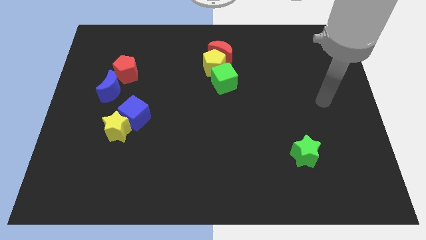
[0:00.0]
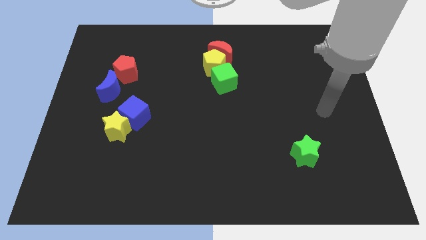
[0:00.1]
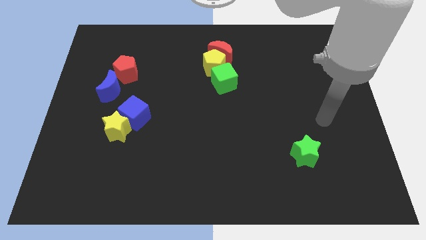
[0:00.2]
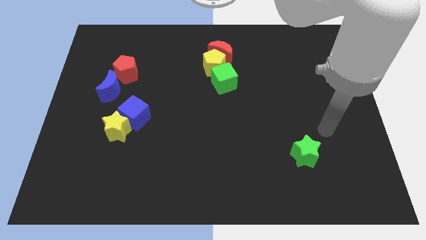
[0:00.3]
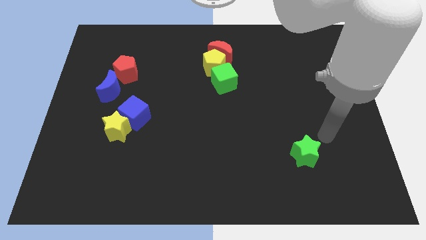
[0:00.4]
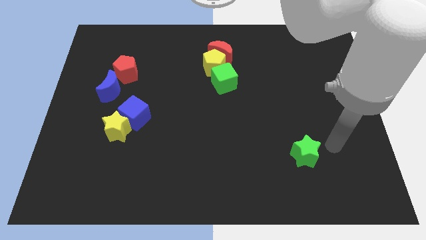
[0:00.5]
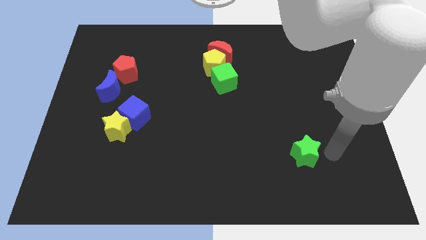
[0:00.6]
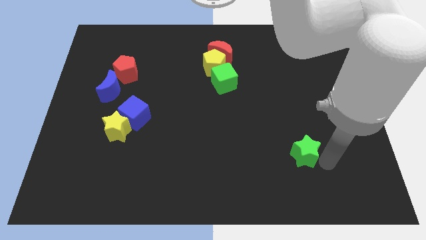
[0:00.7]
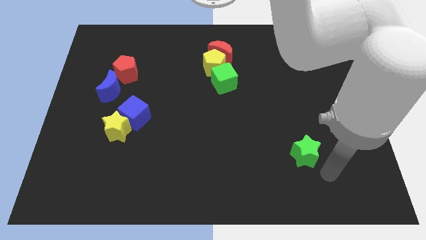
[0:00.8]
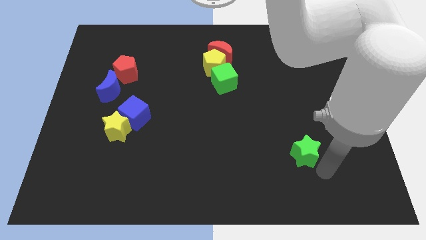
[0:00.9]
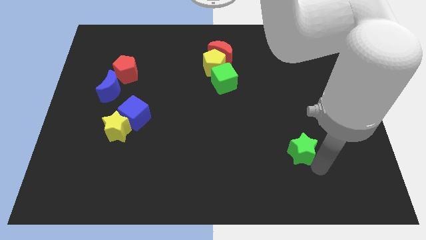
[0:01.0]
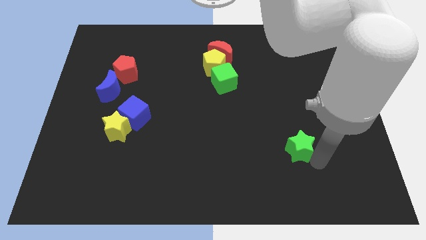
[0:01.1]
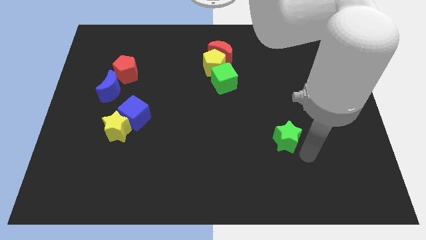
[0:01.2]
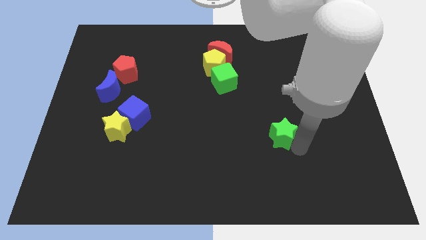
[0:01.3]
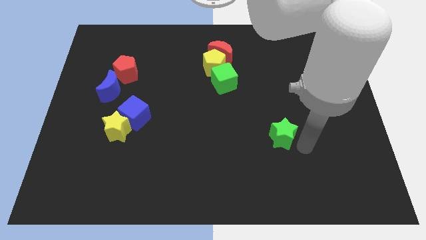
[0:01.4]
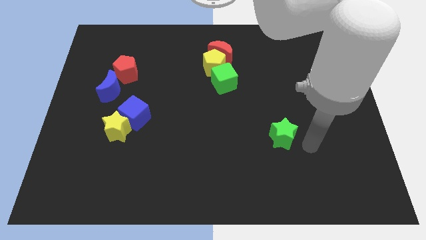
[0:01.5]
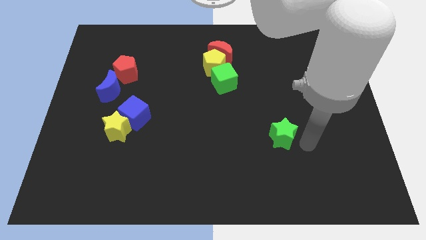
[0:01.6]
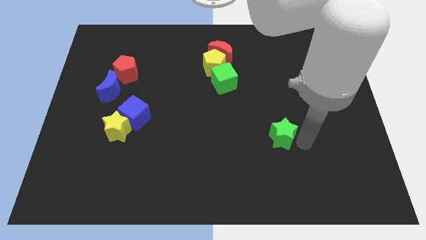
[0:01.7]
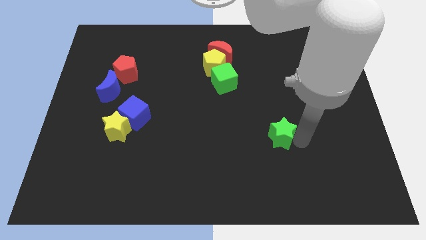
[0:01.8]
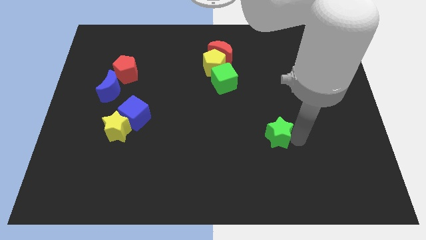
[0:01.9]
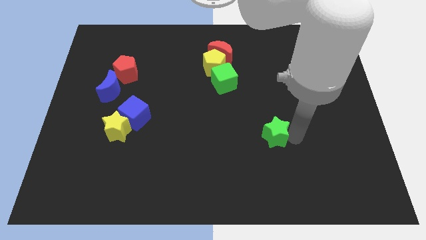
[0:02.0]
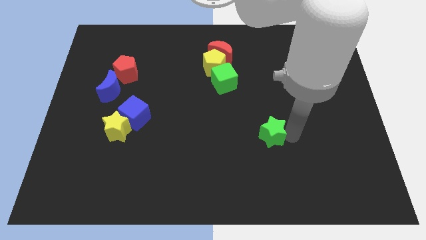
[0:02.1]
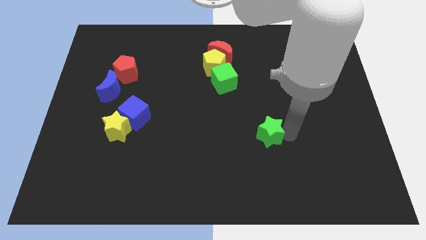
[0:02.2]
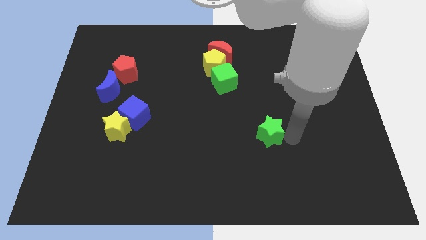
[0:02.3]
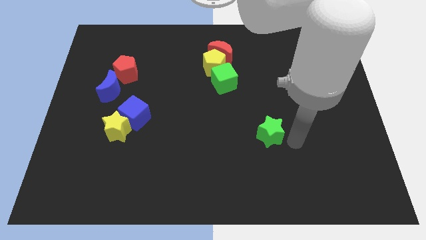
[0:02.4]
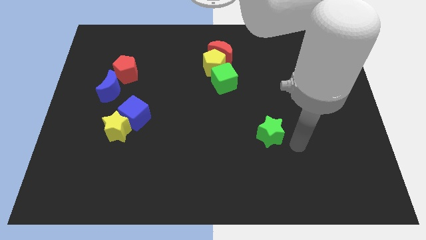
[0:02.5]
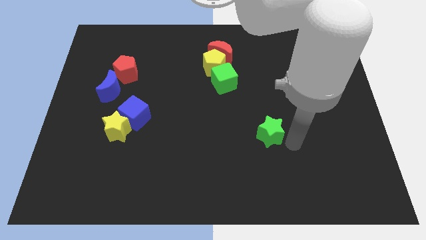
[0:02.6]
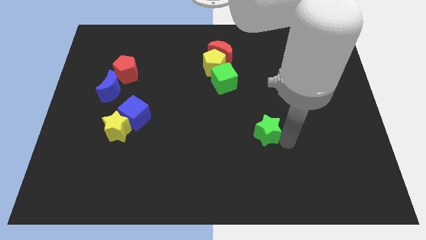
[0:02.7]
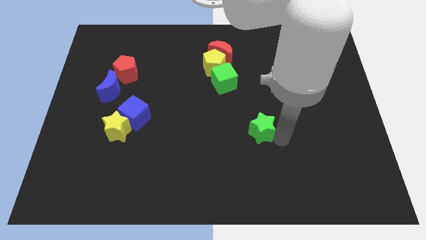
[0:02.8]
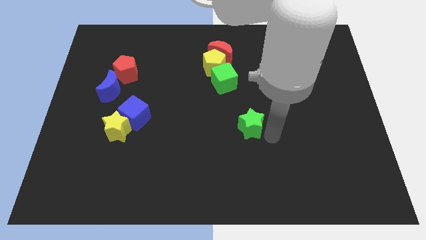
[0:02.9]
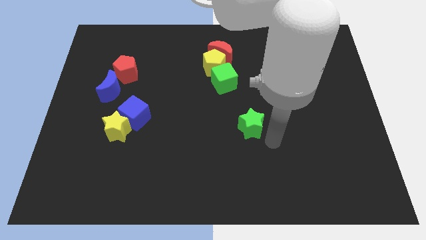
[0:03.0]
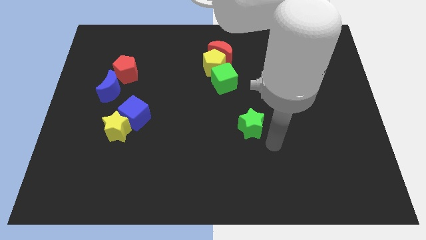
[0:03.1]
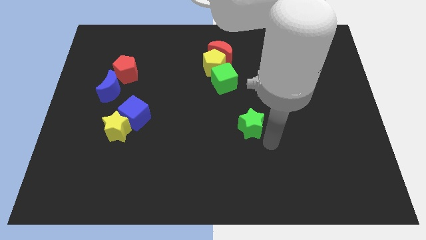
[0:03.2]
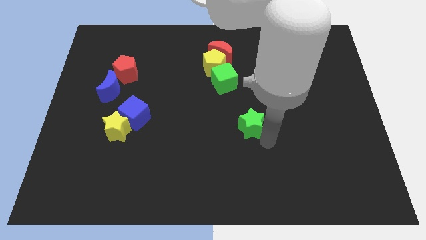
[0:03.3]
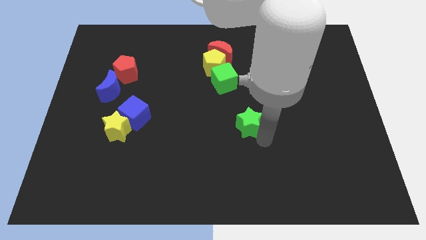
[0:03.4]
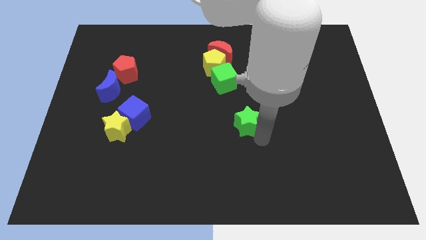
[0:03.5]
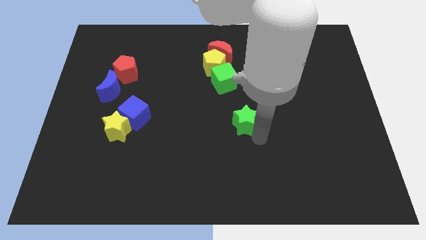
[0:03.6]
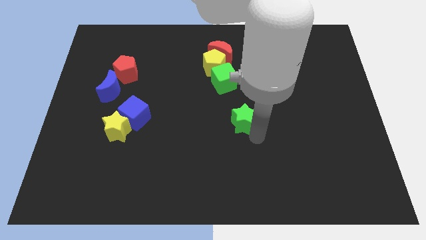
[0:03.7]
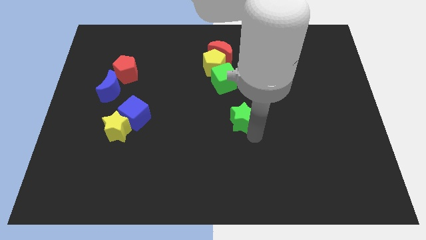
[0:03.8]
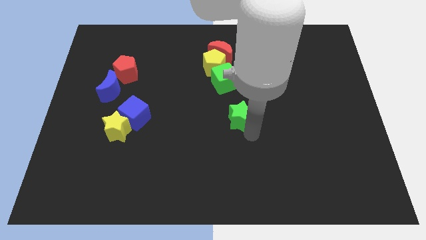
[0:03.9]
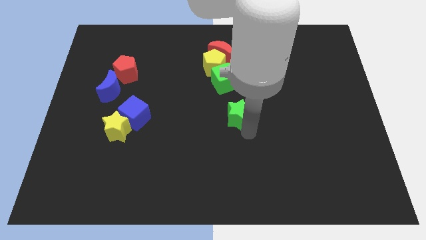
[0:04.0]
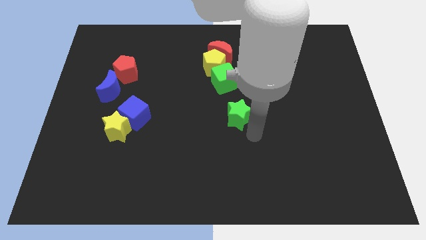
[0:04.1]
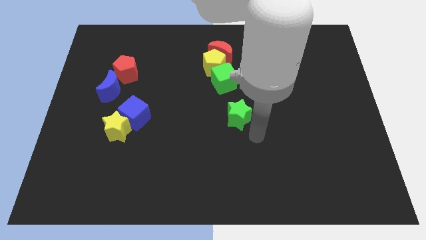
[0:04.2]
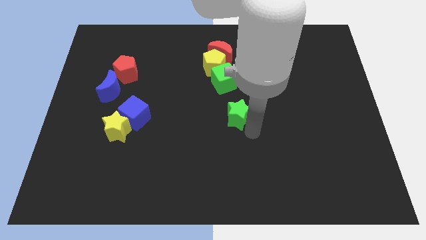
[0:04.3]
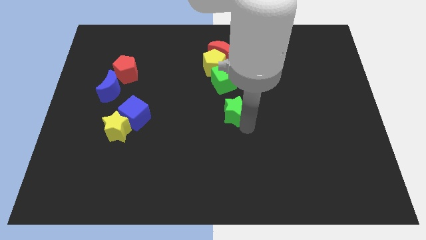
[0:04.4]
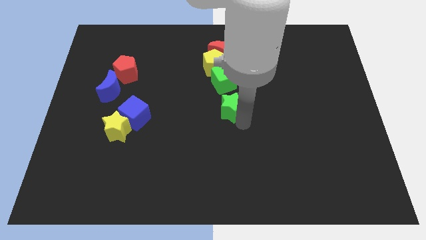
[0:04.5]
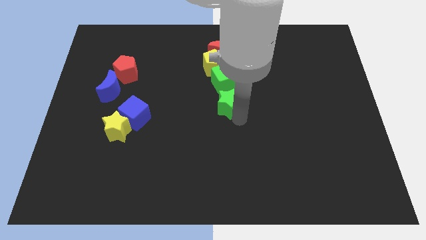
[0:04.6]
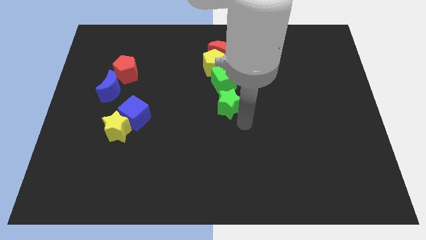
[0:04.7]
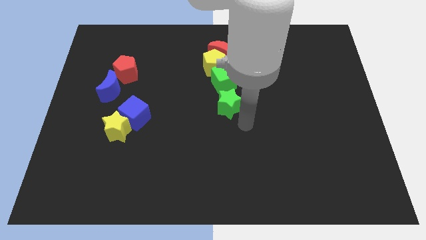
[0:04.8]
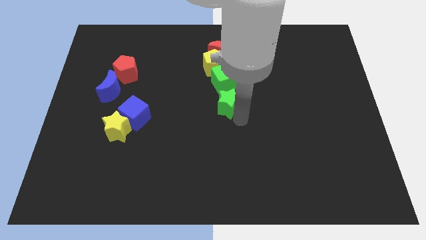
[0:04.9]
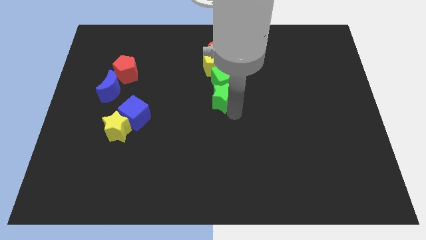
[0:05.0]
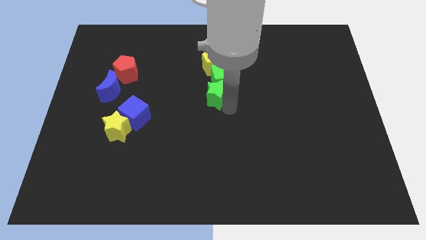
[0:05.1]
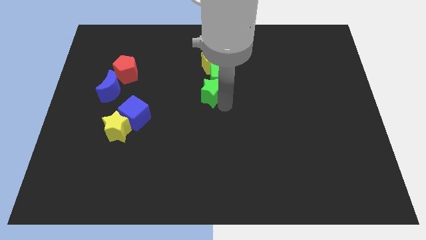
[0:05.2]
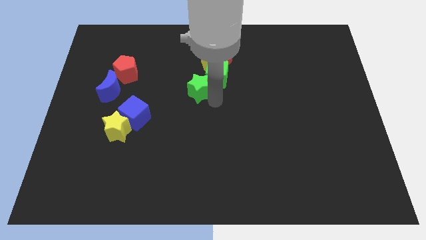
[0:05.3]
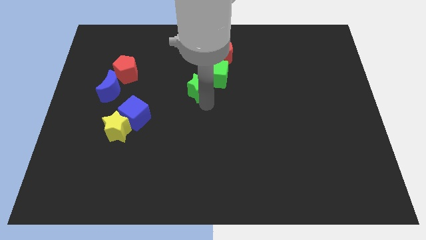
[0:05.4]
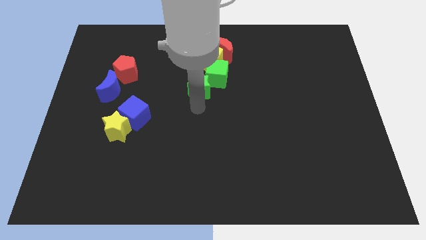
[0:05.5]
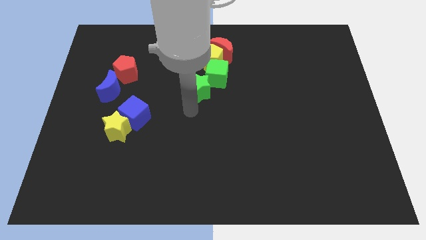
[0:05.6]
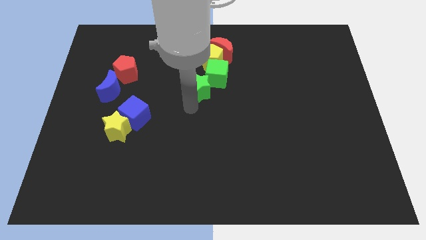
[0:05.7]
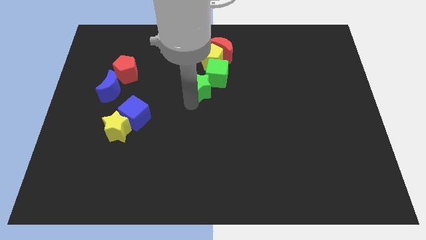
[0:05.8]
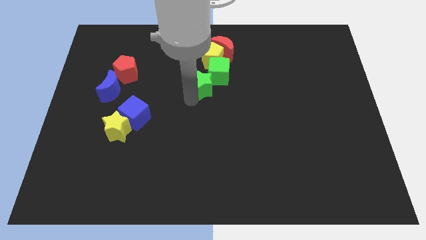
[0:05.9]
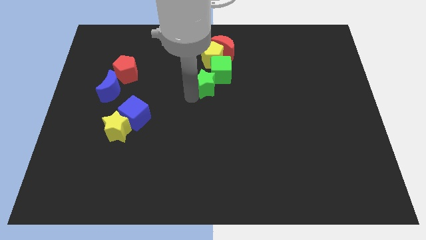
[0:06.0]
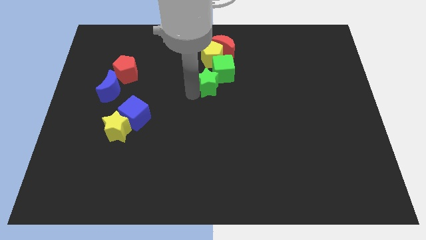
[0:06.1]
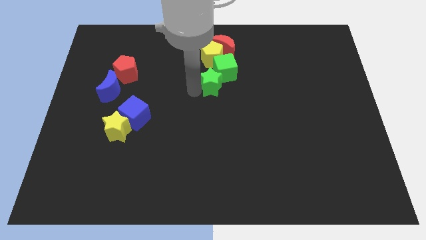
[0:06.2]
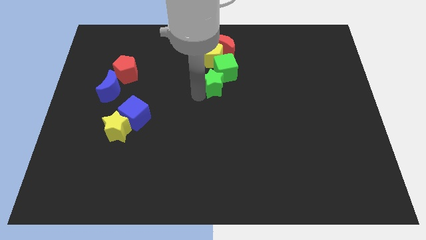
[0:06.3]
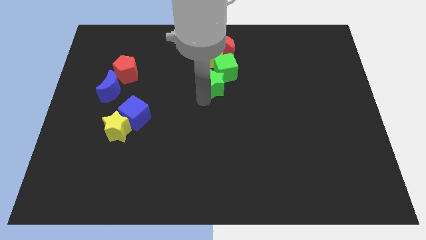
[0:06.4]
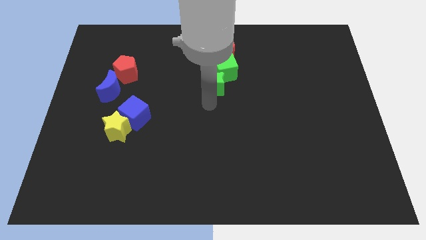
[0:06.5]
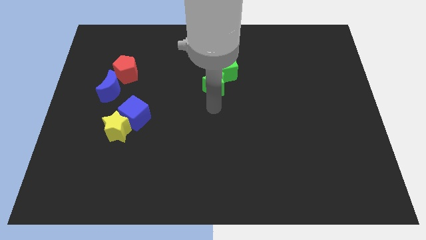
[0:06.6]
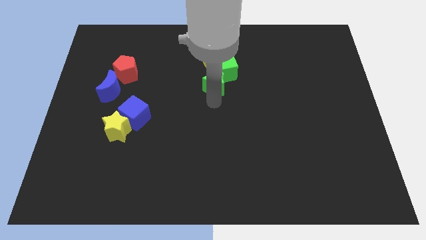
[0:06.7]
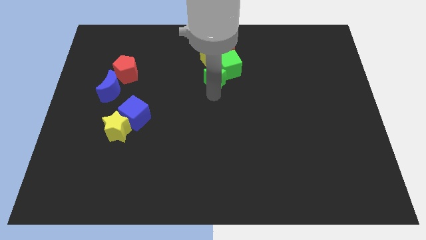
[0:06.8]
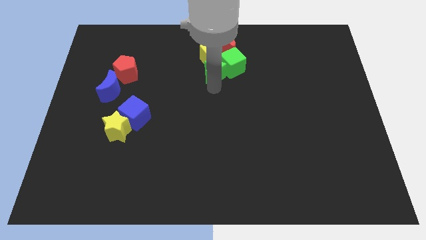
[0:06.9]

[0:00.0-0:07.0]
push the green star towards the yellow pentagon
